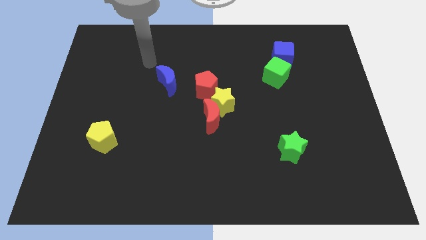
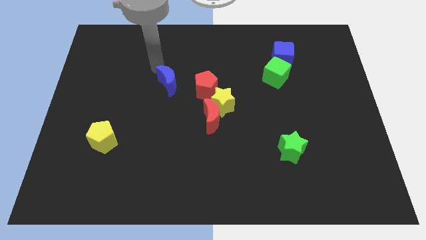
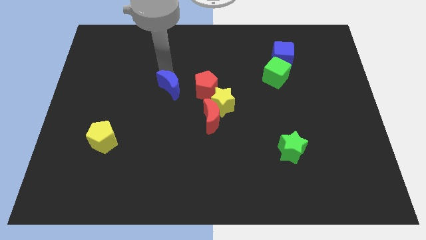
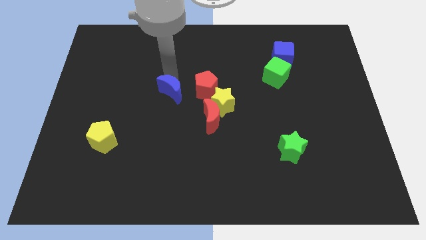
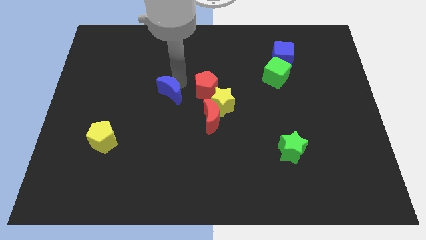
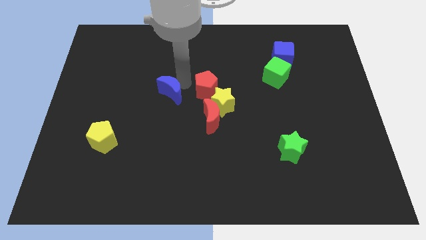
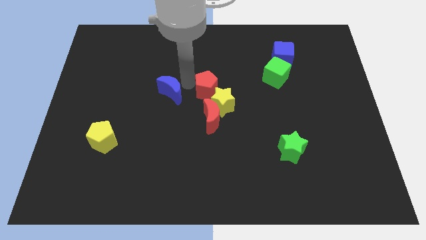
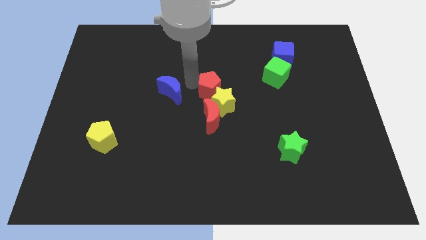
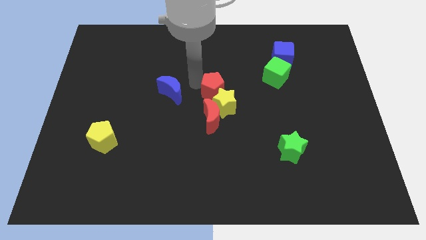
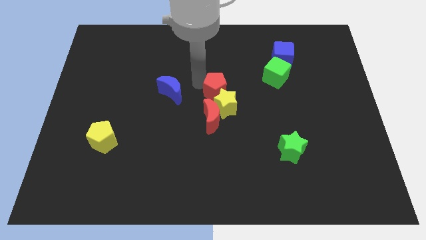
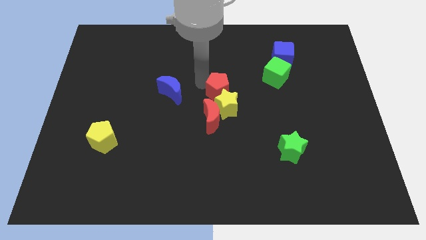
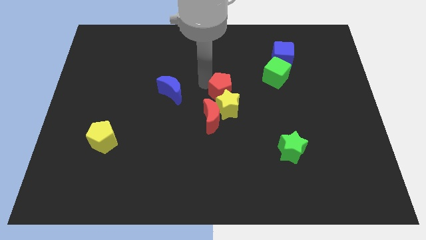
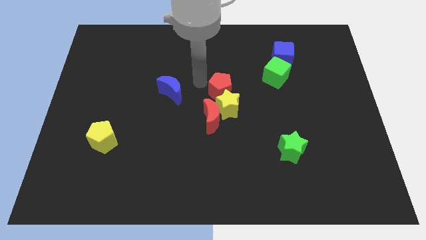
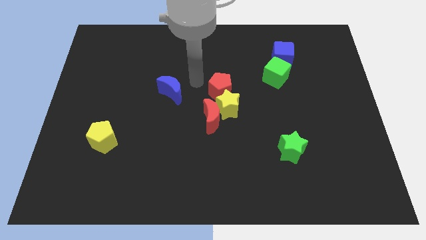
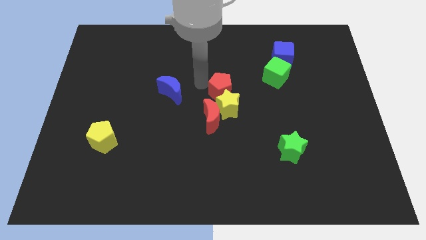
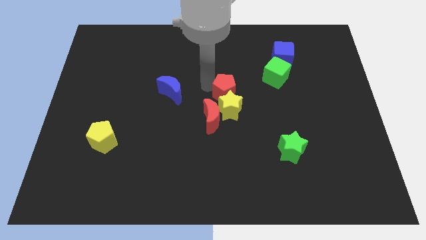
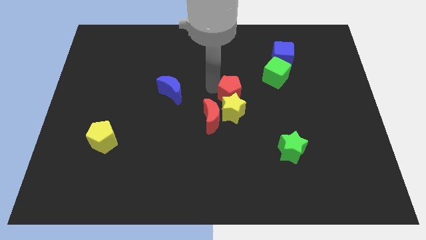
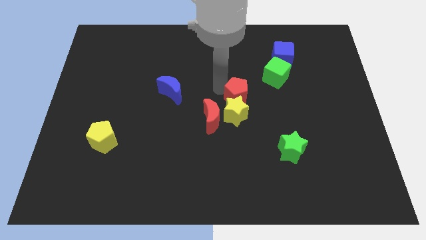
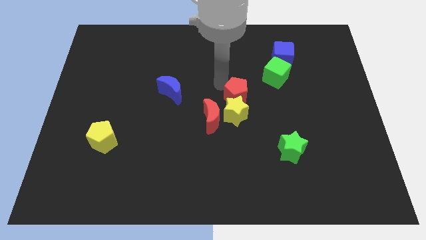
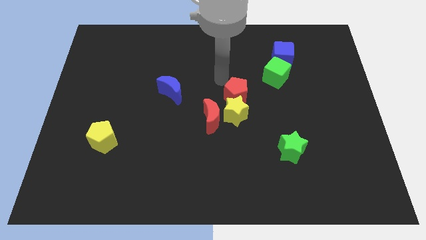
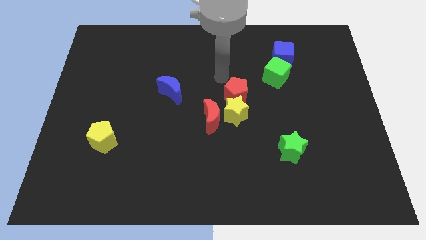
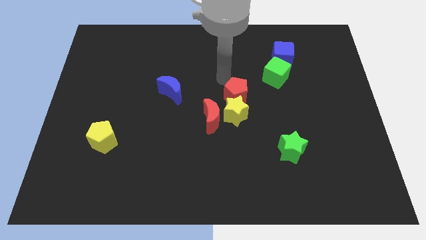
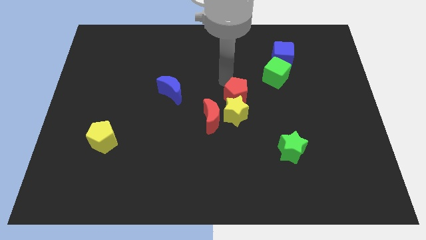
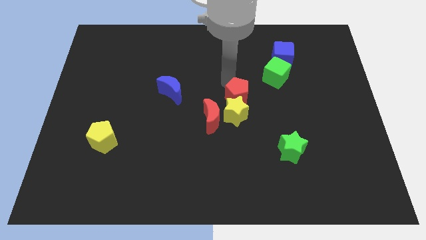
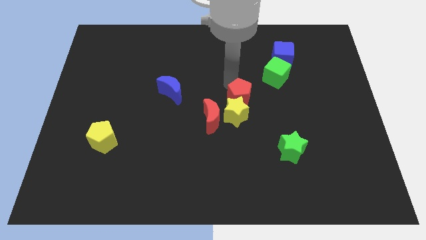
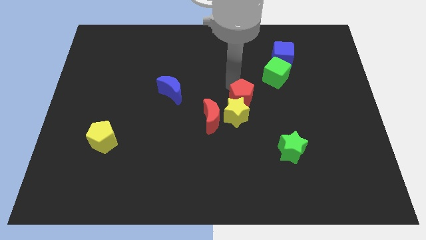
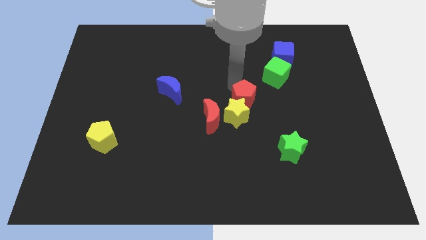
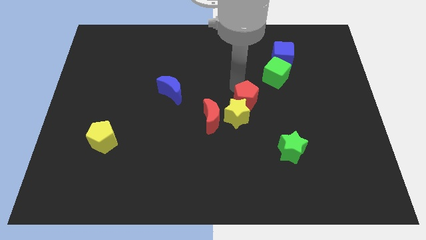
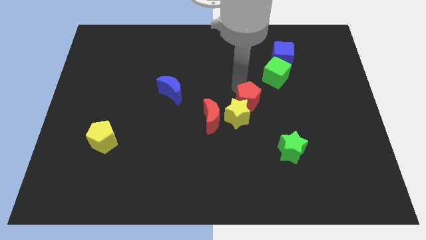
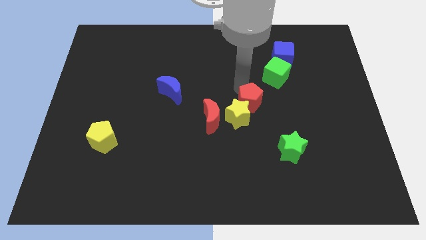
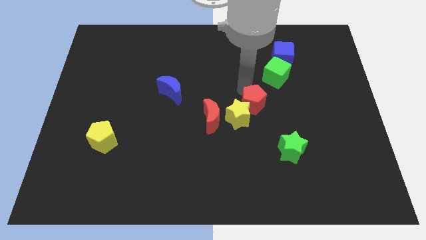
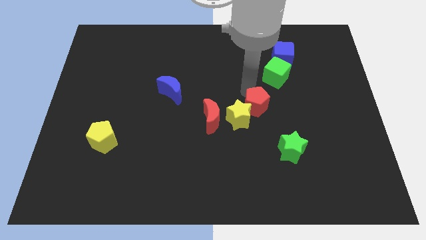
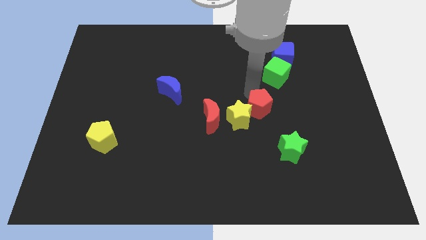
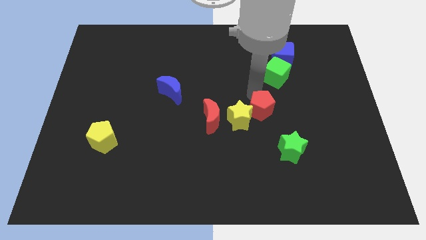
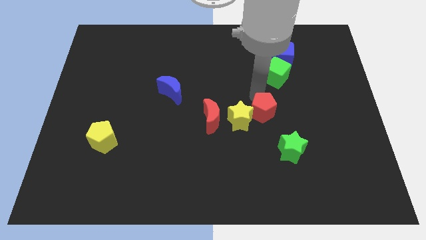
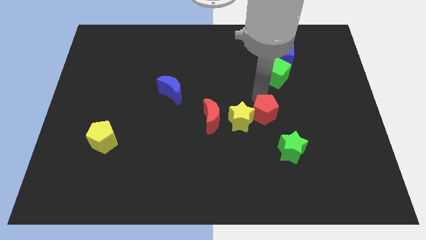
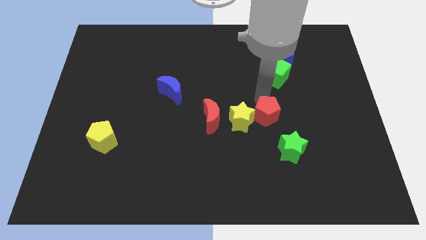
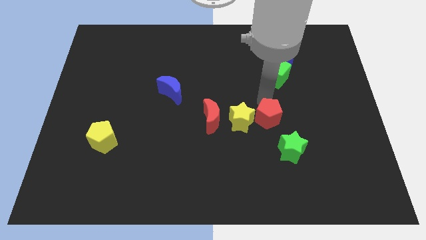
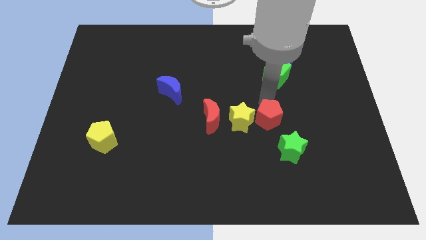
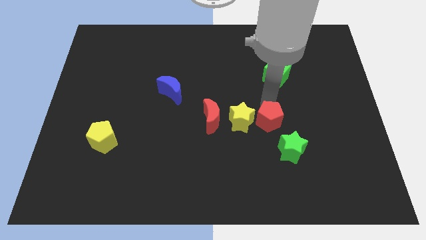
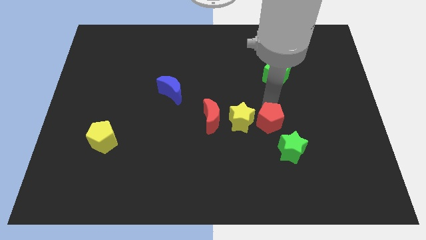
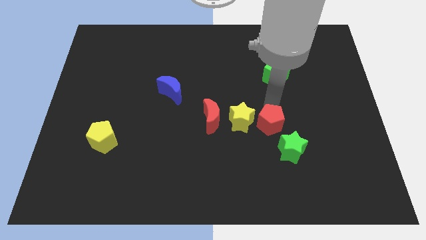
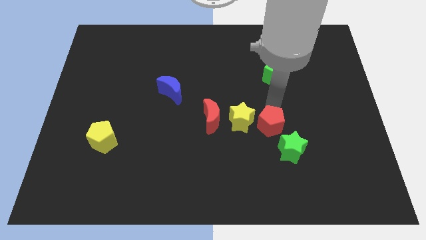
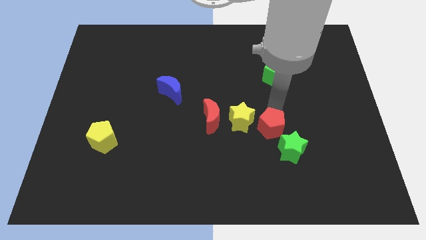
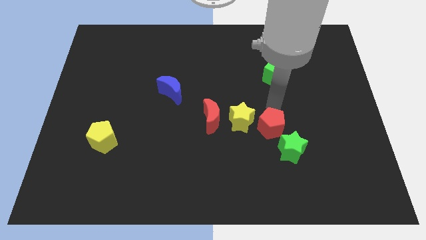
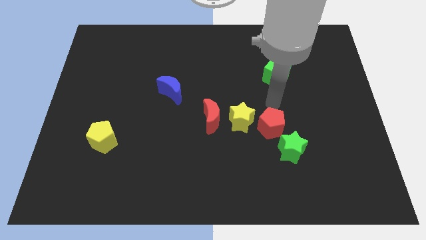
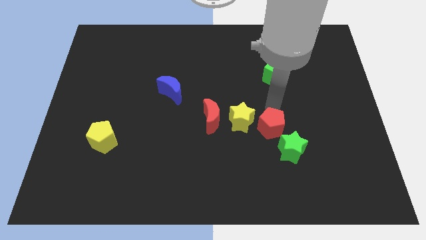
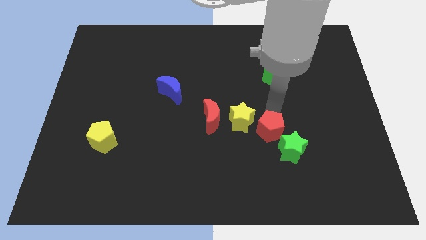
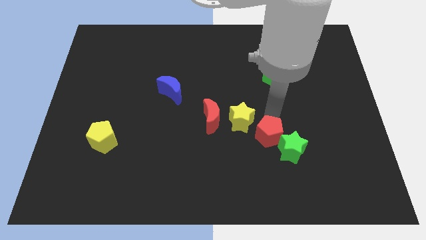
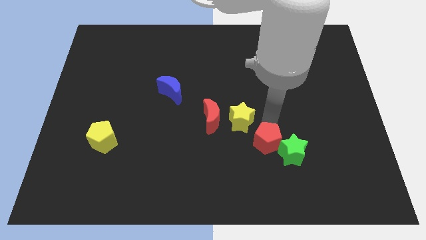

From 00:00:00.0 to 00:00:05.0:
slide the red pentagon diagonally downwards and to the right

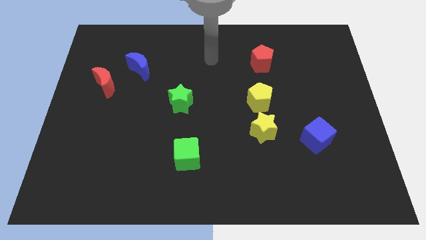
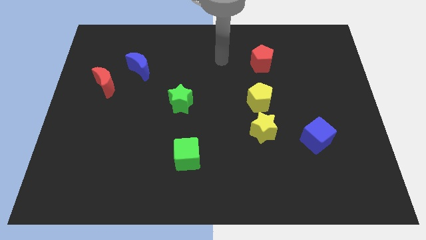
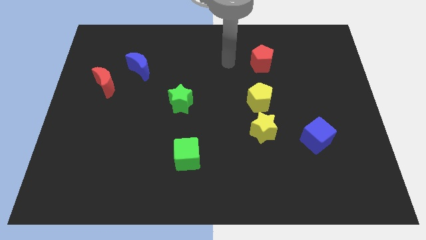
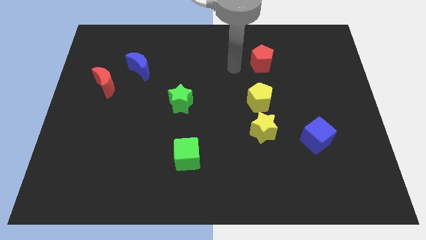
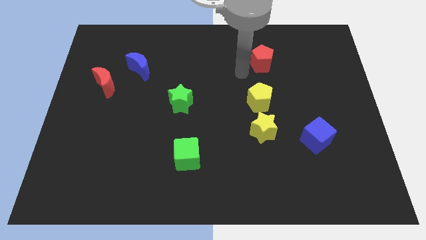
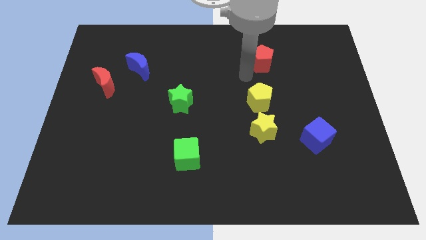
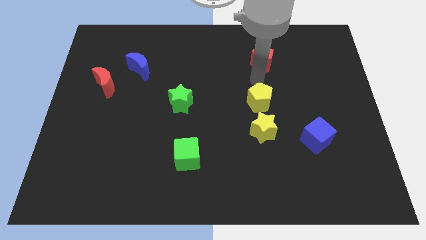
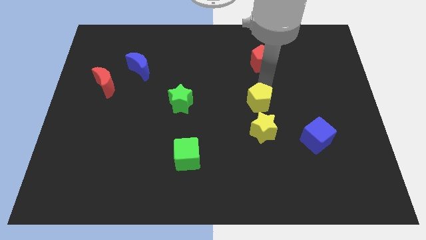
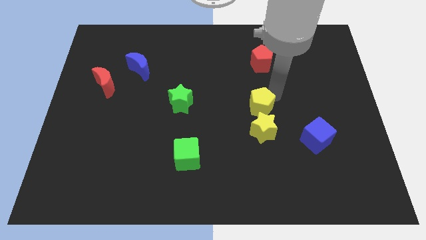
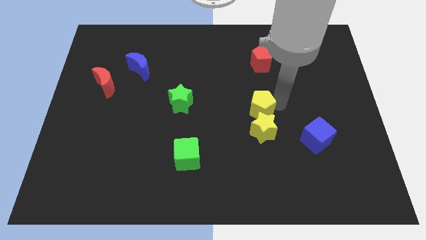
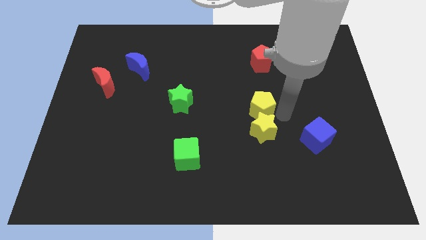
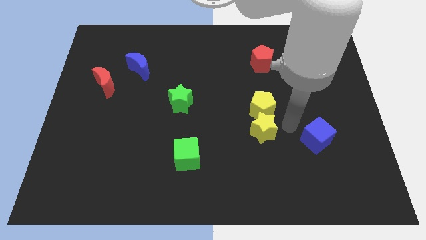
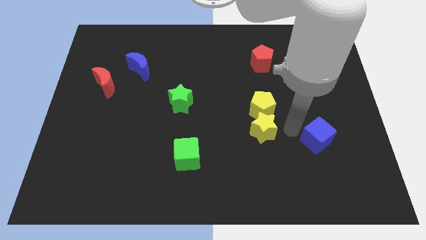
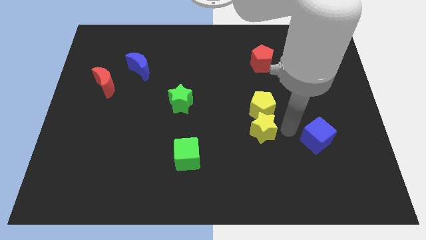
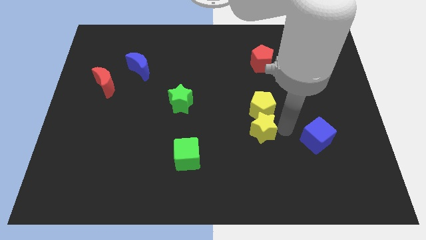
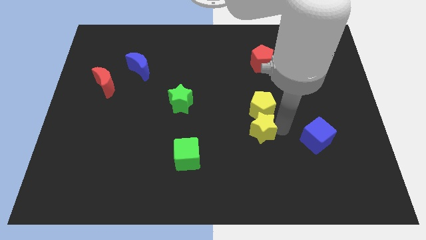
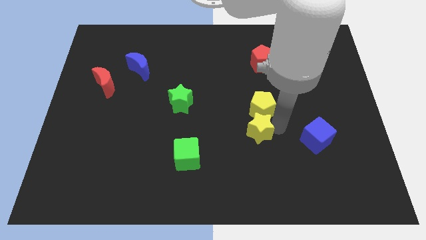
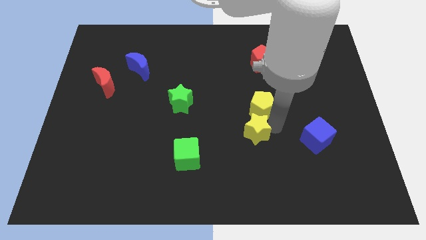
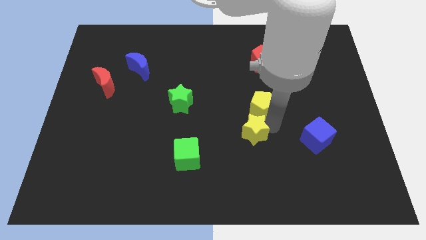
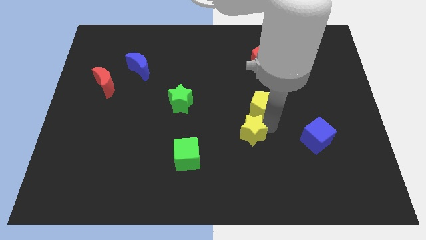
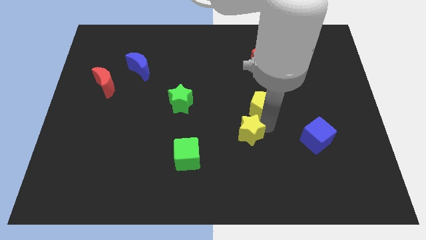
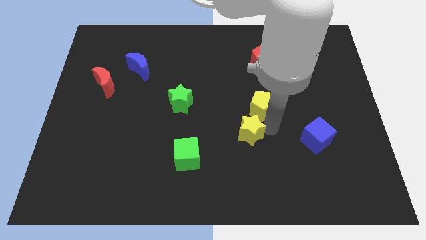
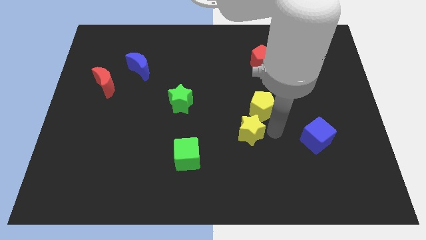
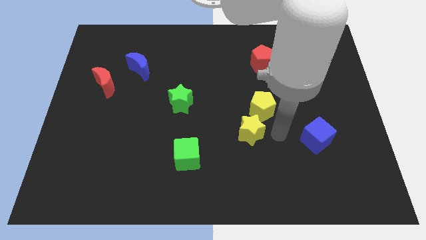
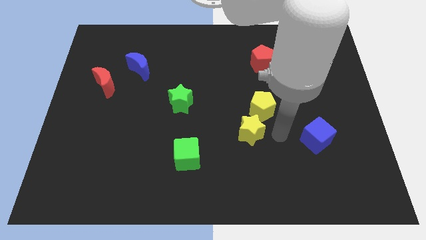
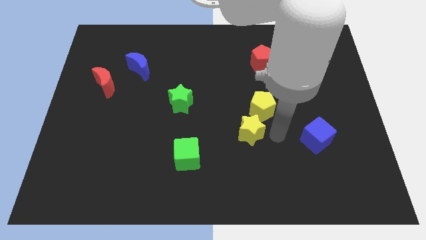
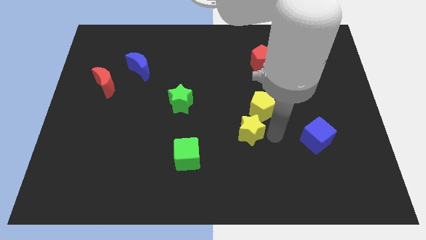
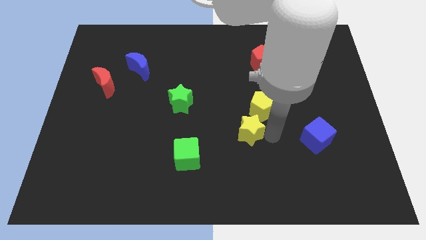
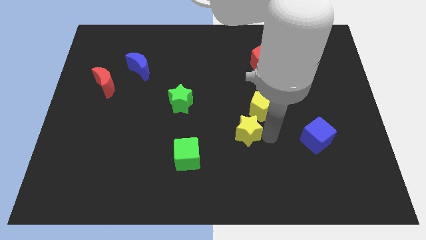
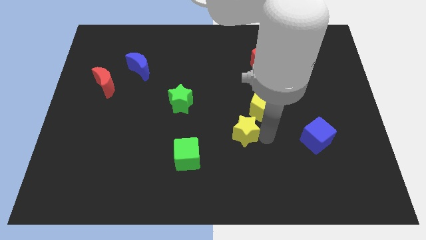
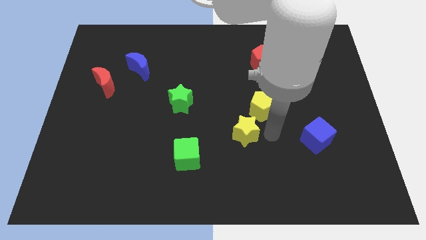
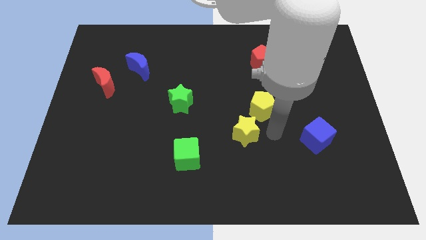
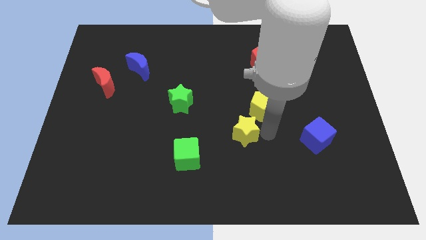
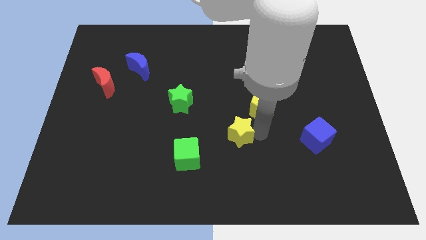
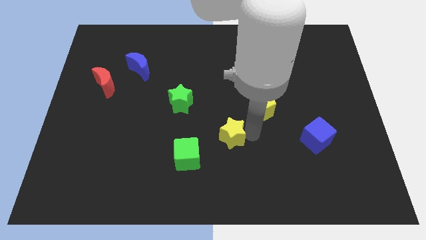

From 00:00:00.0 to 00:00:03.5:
push the yellow star to the left a little bit
